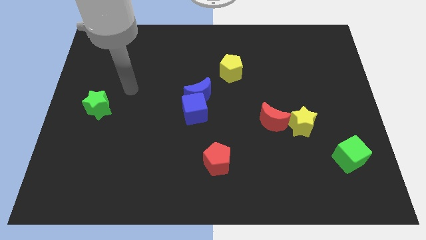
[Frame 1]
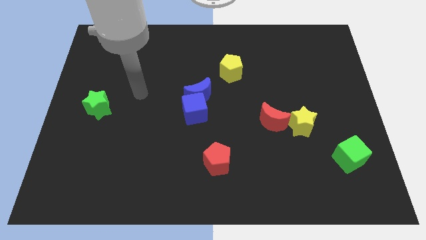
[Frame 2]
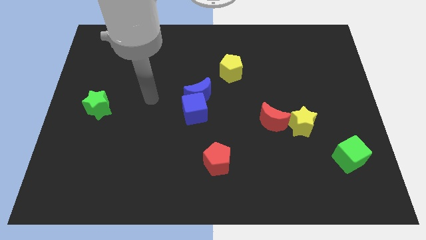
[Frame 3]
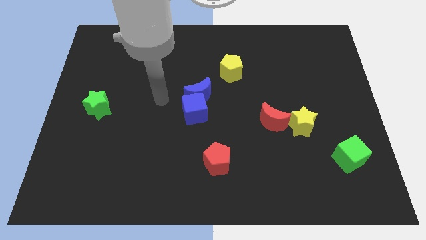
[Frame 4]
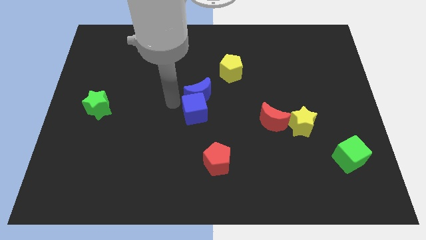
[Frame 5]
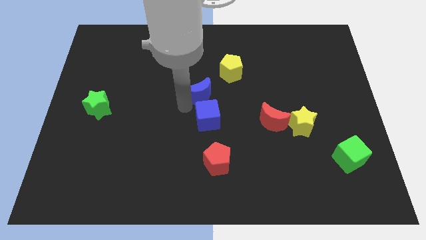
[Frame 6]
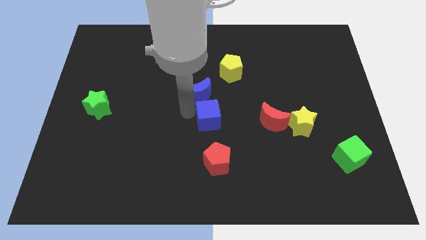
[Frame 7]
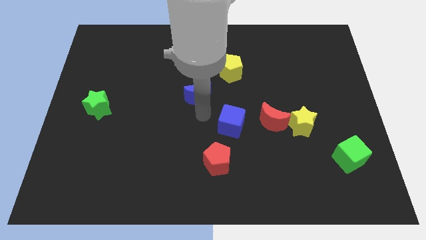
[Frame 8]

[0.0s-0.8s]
separate the blue moon from the blue cube

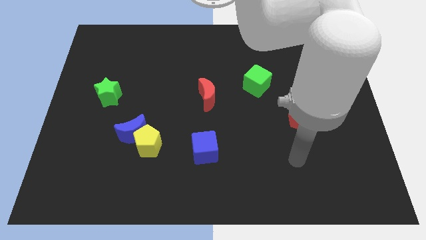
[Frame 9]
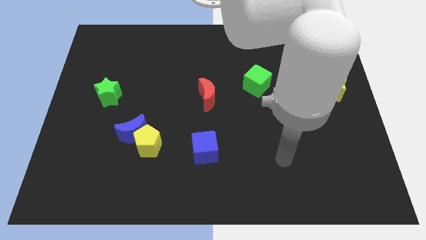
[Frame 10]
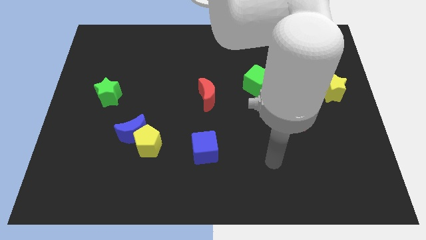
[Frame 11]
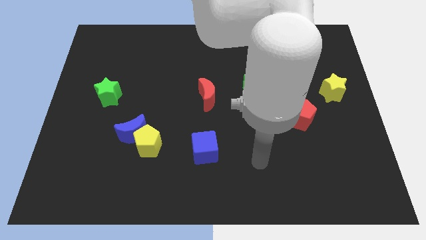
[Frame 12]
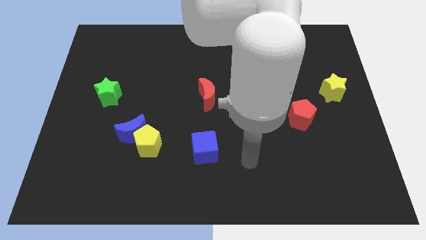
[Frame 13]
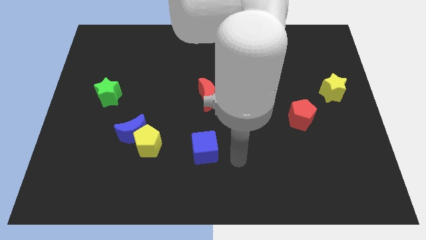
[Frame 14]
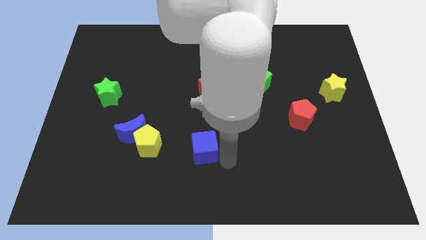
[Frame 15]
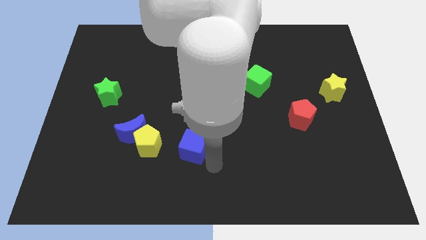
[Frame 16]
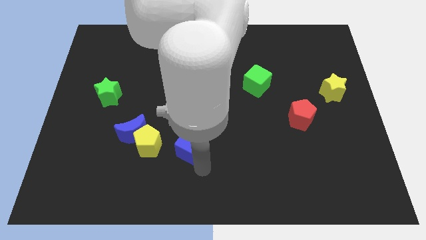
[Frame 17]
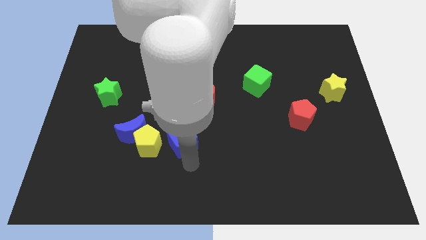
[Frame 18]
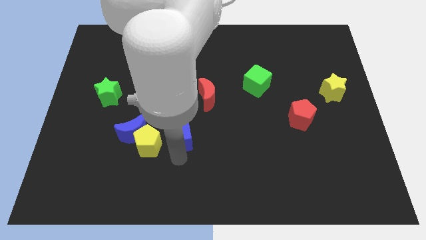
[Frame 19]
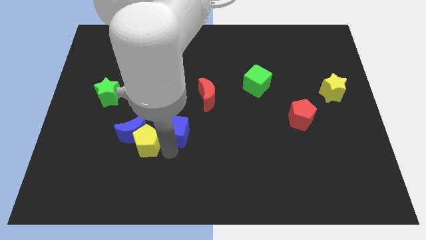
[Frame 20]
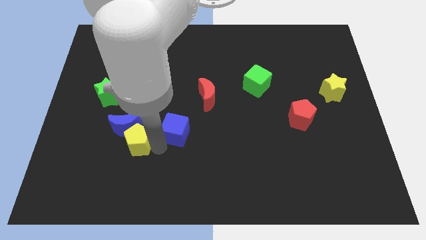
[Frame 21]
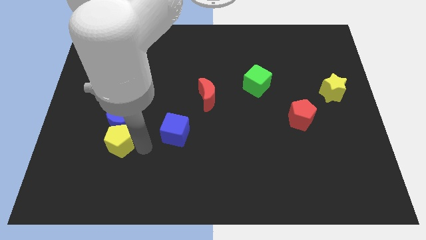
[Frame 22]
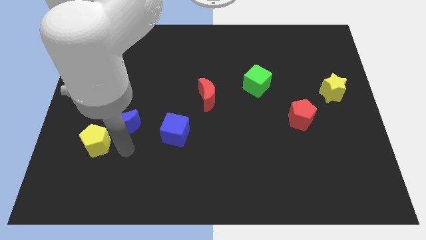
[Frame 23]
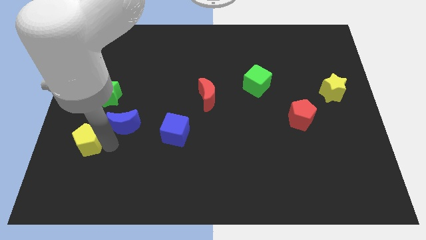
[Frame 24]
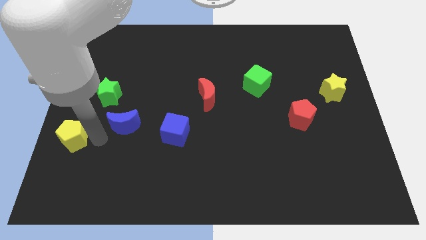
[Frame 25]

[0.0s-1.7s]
pull the blue moon apart from the yellow pentagon

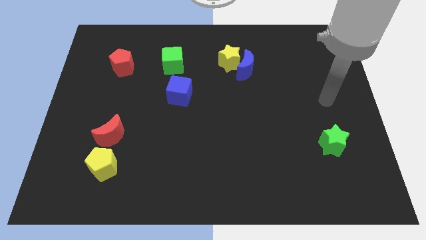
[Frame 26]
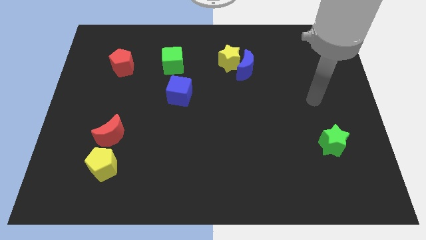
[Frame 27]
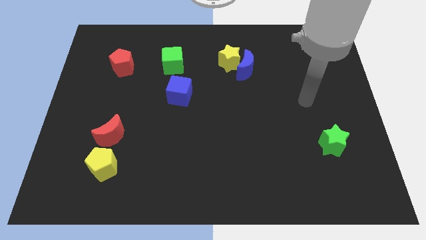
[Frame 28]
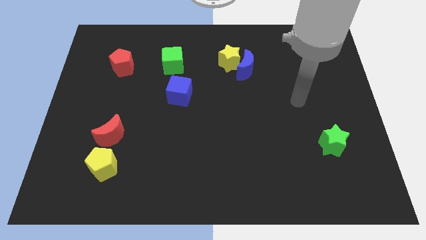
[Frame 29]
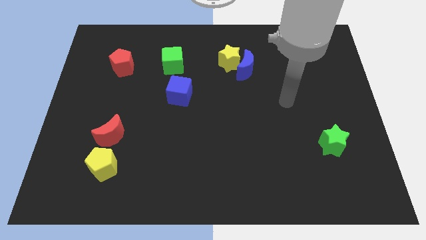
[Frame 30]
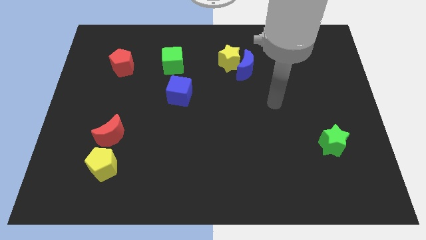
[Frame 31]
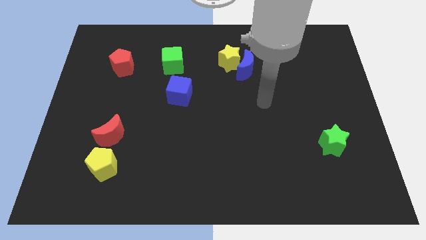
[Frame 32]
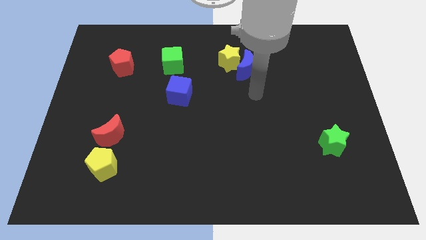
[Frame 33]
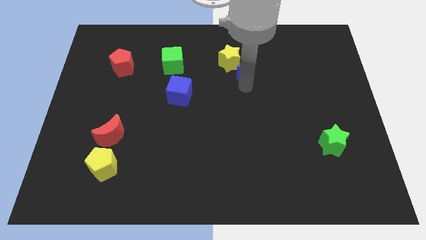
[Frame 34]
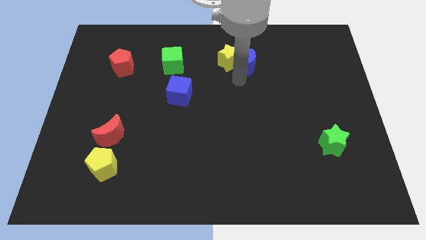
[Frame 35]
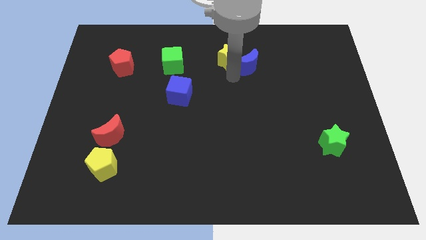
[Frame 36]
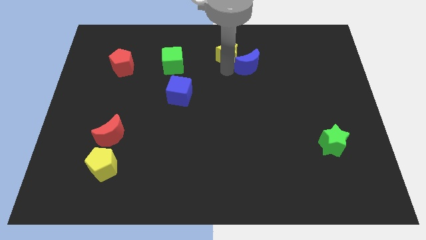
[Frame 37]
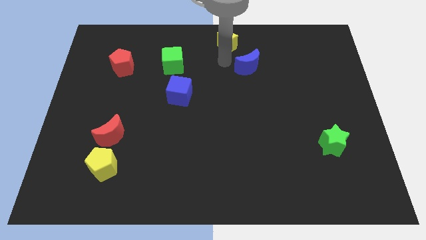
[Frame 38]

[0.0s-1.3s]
pull the blue moon apart from the yellow star

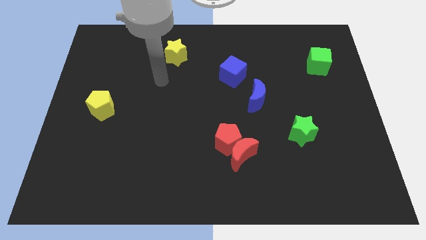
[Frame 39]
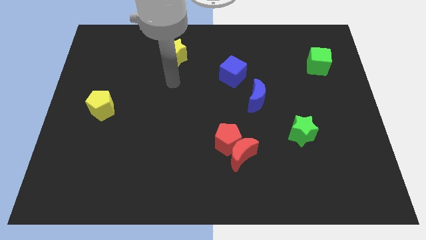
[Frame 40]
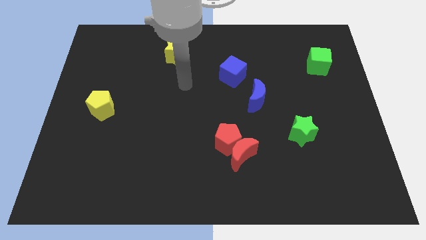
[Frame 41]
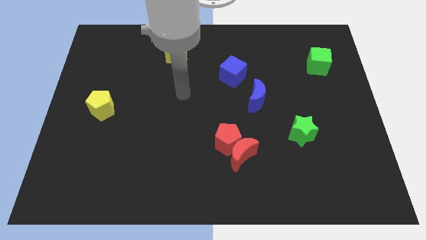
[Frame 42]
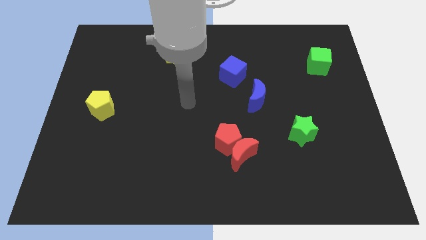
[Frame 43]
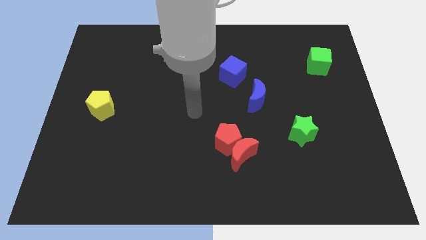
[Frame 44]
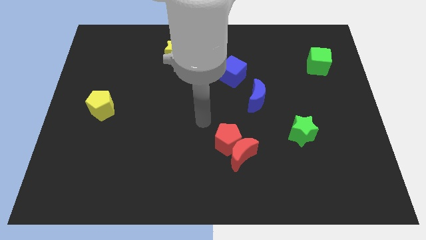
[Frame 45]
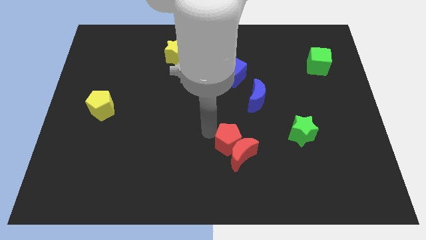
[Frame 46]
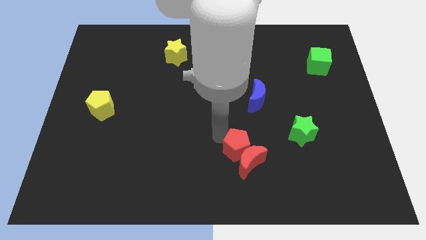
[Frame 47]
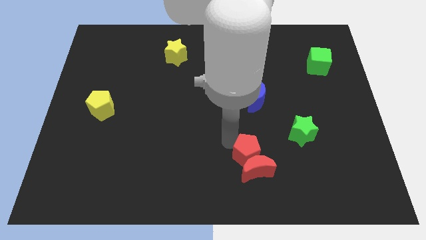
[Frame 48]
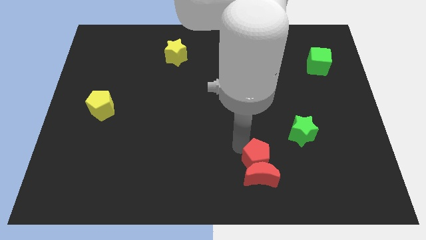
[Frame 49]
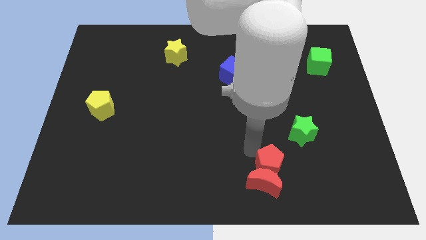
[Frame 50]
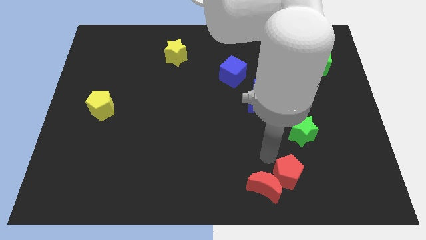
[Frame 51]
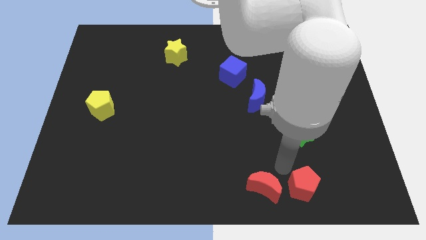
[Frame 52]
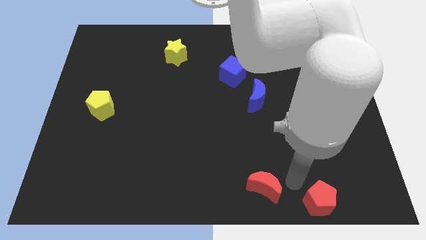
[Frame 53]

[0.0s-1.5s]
pull the red moon apart from the red pentagon

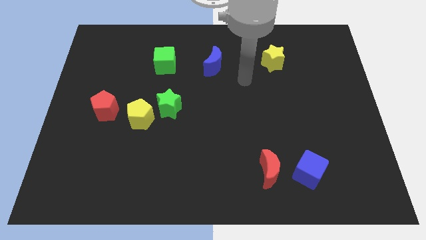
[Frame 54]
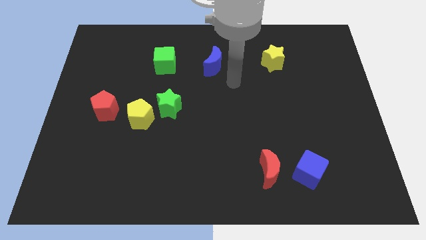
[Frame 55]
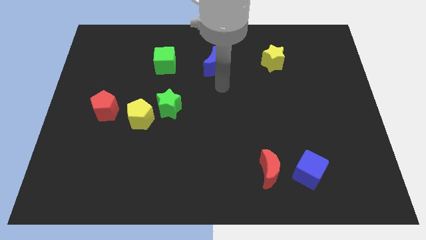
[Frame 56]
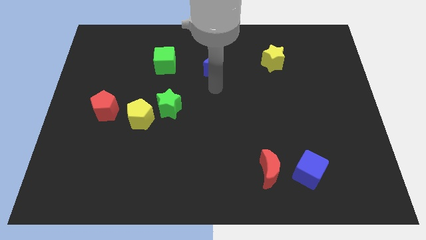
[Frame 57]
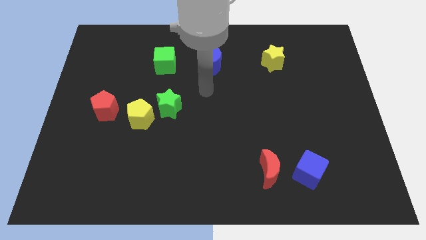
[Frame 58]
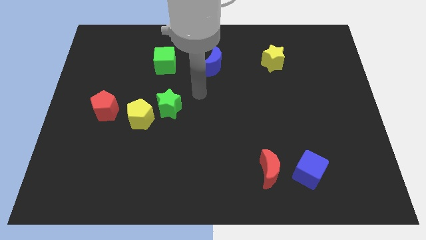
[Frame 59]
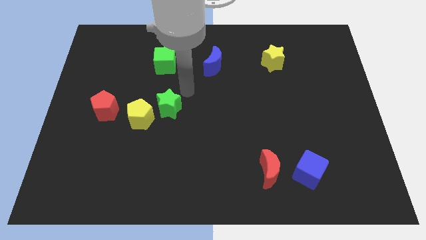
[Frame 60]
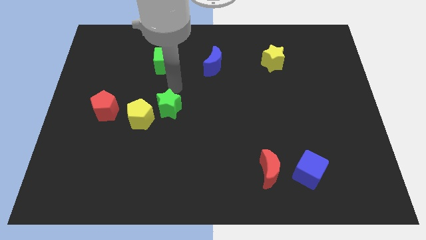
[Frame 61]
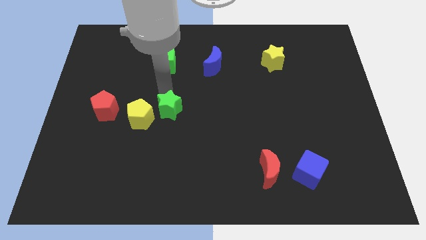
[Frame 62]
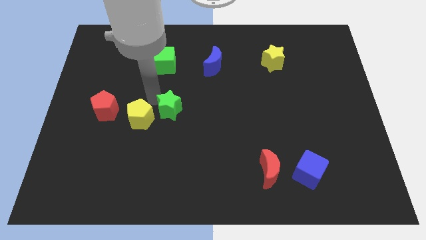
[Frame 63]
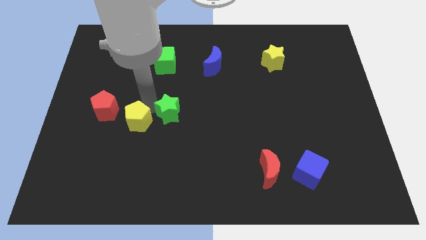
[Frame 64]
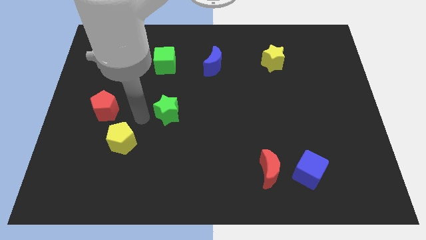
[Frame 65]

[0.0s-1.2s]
move the green star away from the yellow pentagon

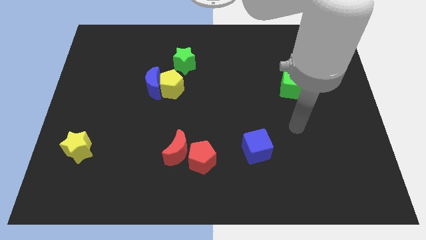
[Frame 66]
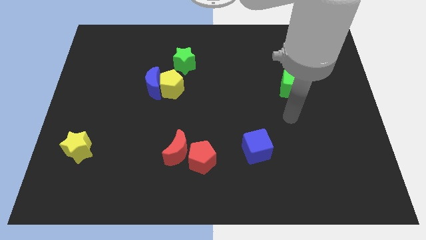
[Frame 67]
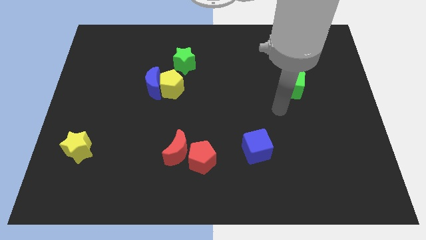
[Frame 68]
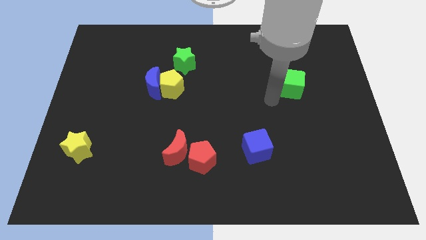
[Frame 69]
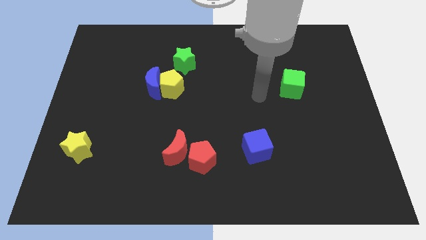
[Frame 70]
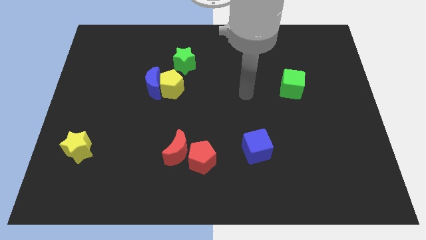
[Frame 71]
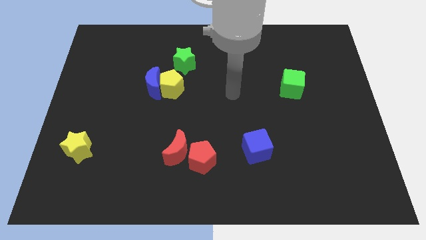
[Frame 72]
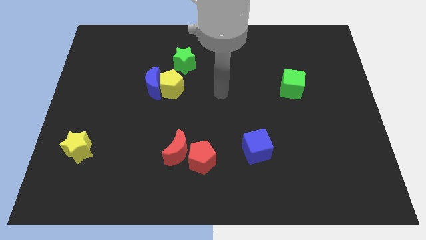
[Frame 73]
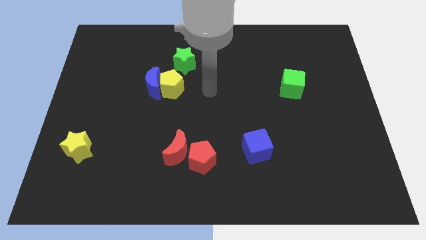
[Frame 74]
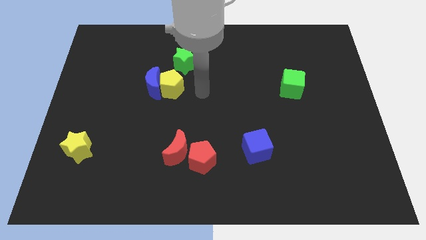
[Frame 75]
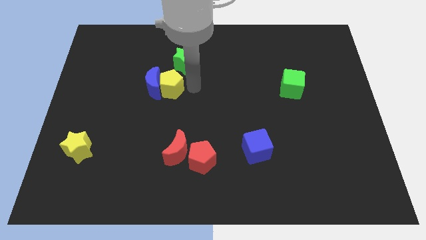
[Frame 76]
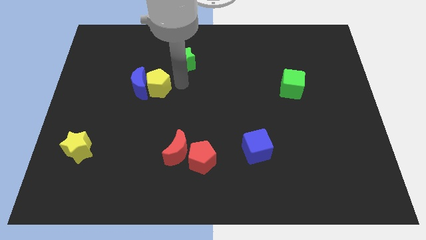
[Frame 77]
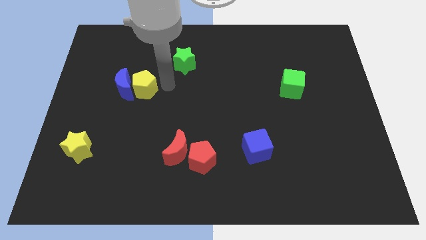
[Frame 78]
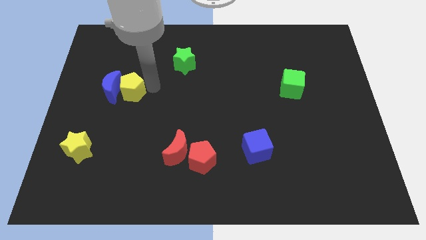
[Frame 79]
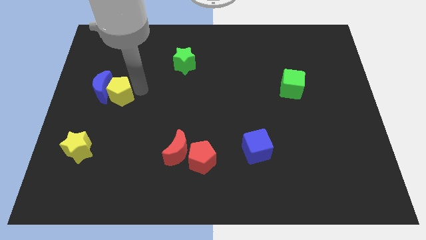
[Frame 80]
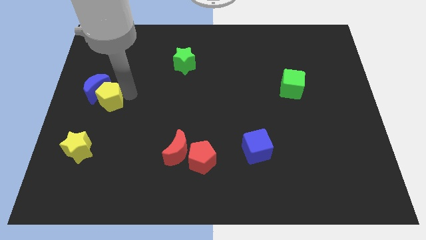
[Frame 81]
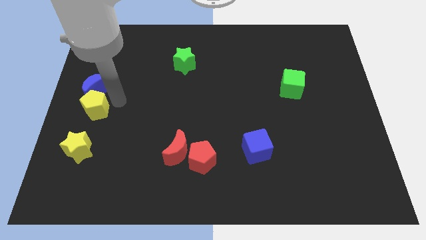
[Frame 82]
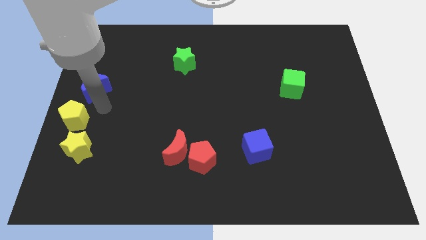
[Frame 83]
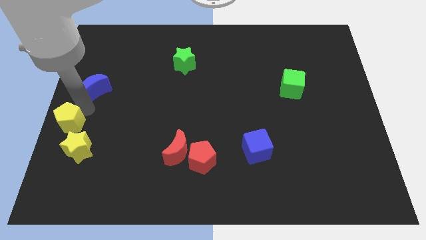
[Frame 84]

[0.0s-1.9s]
separate the blue moon from the yellow pentagon

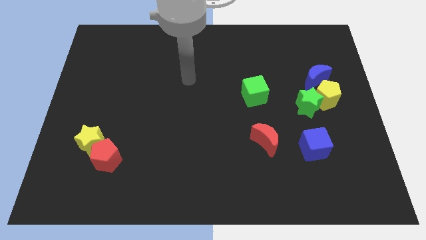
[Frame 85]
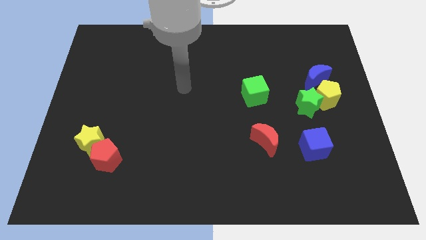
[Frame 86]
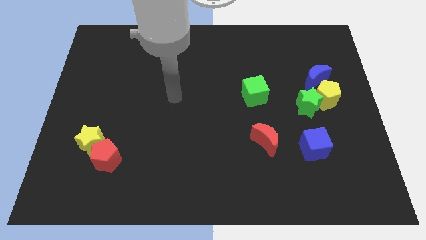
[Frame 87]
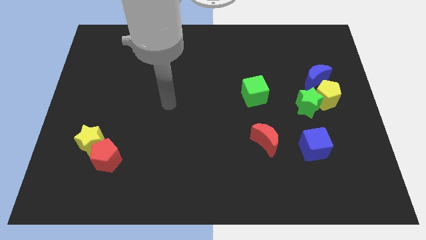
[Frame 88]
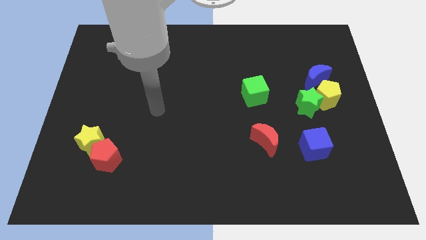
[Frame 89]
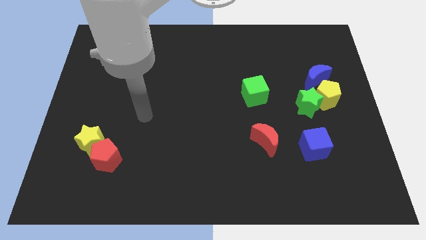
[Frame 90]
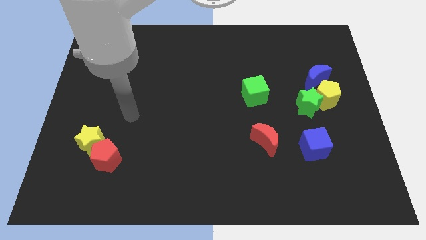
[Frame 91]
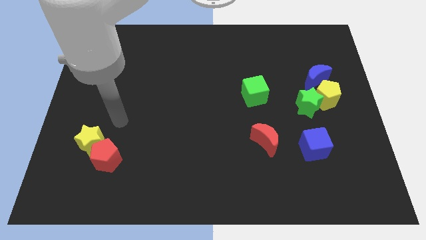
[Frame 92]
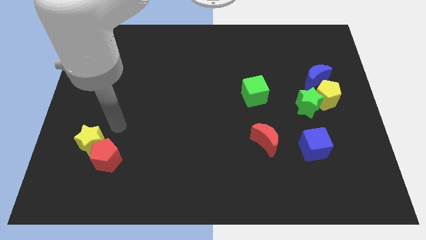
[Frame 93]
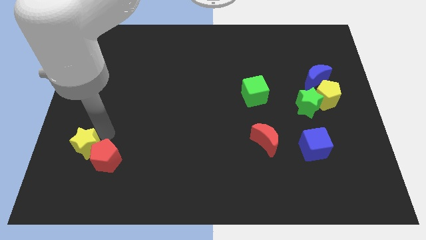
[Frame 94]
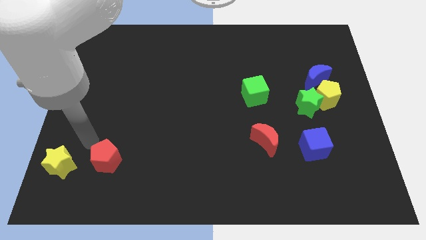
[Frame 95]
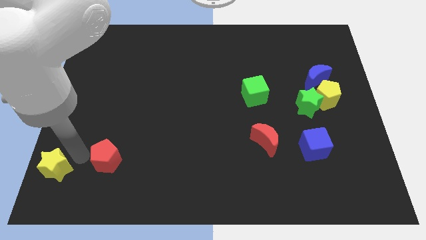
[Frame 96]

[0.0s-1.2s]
separate the red pentagon from the yellow star
